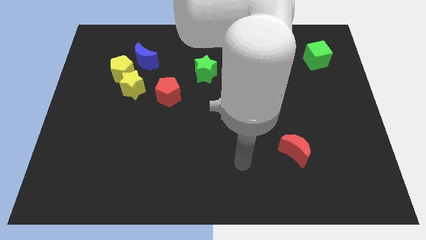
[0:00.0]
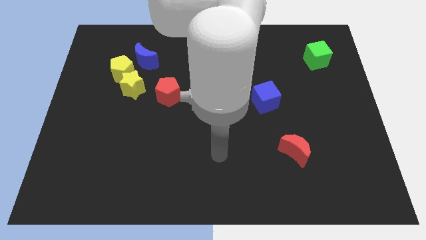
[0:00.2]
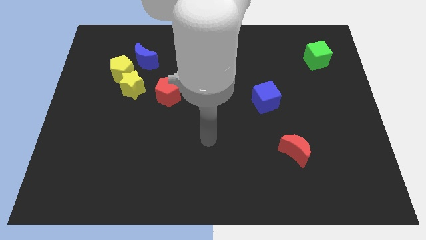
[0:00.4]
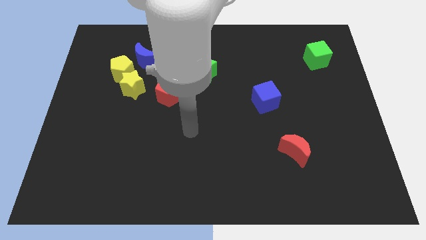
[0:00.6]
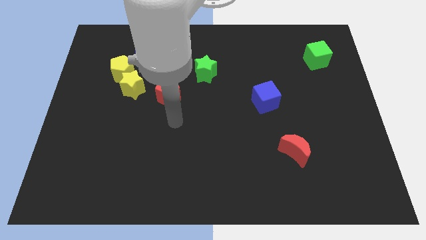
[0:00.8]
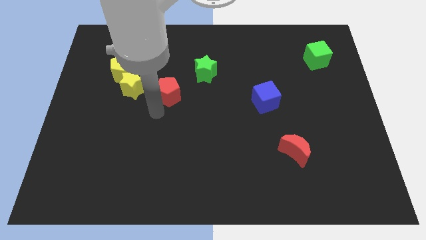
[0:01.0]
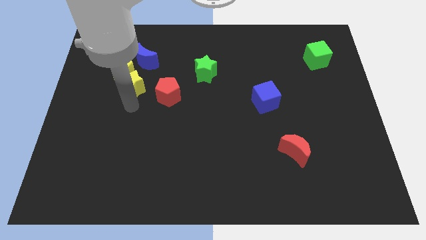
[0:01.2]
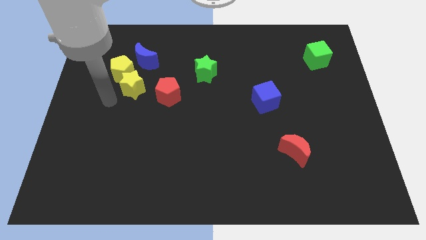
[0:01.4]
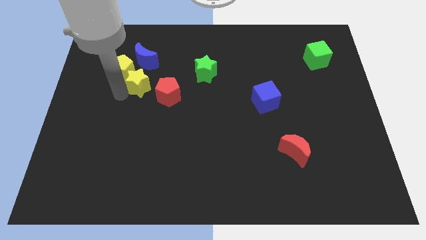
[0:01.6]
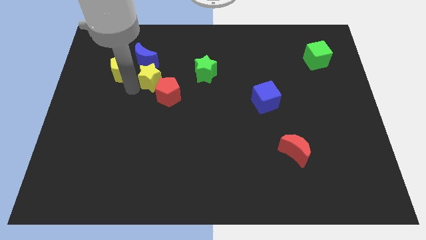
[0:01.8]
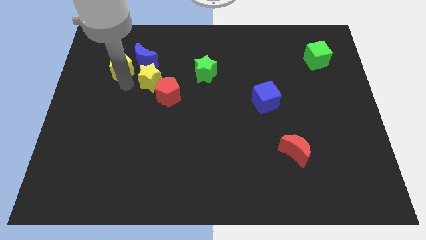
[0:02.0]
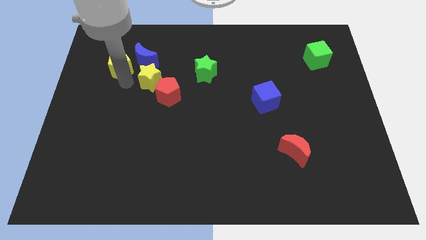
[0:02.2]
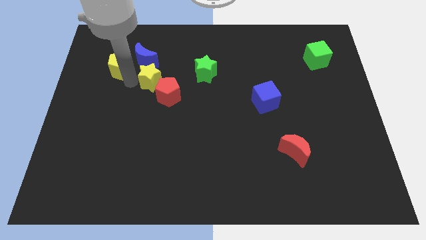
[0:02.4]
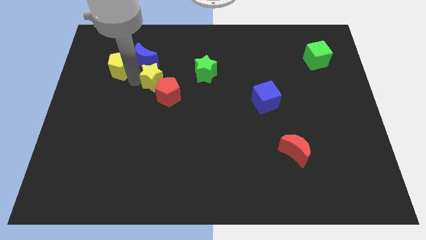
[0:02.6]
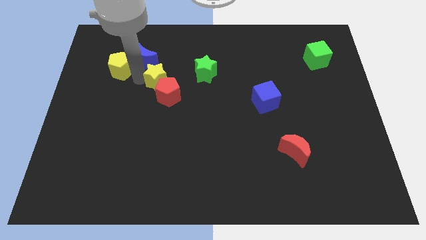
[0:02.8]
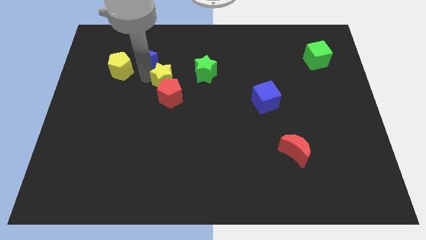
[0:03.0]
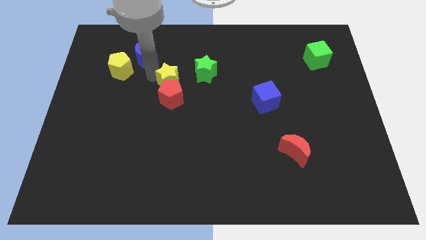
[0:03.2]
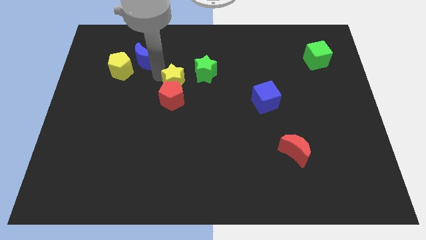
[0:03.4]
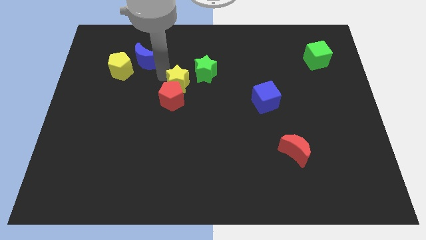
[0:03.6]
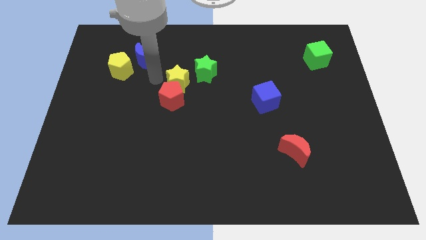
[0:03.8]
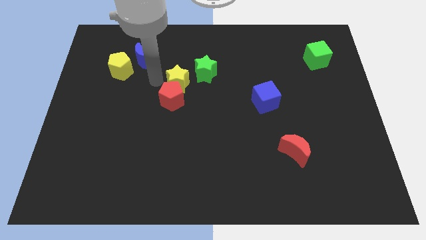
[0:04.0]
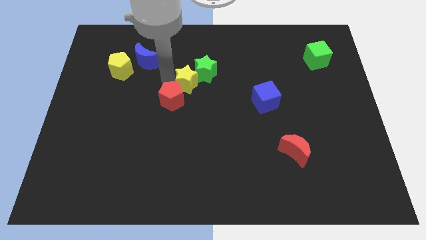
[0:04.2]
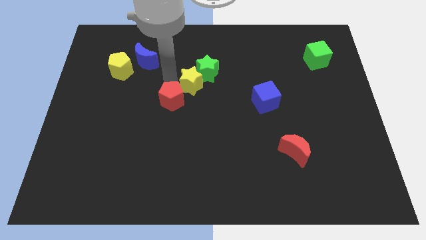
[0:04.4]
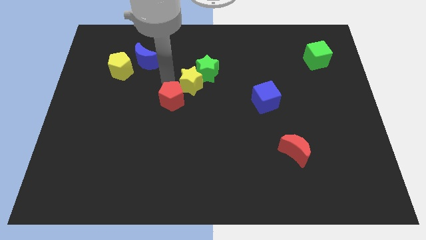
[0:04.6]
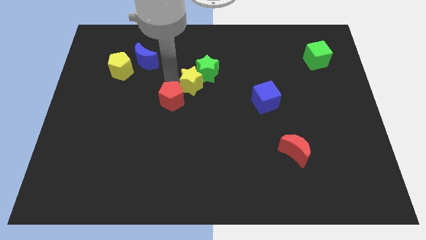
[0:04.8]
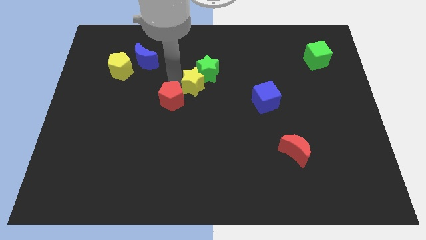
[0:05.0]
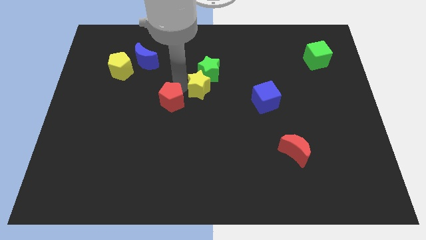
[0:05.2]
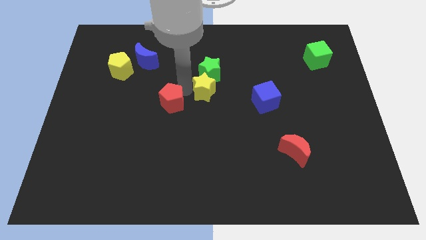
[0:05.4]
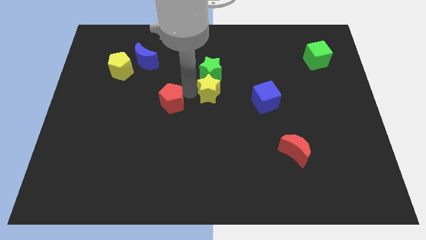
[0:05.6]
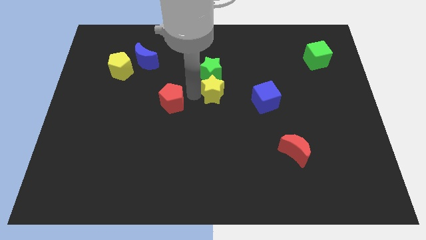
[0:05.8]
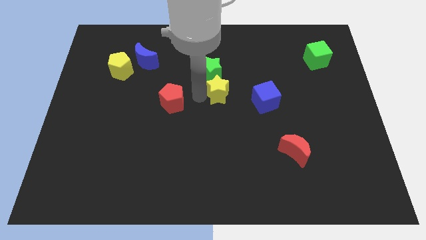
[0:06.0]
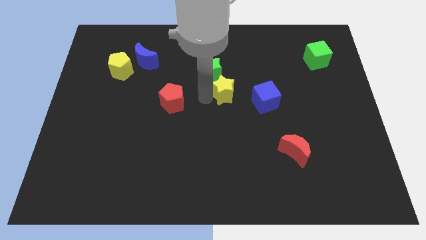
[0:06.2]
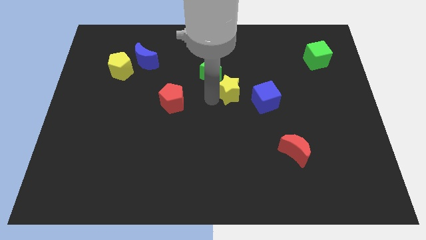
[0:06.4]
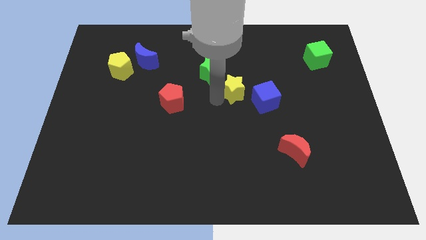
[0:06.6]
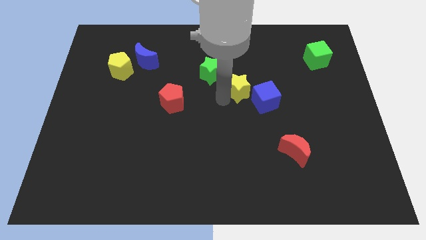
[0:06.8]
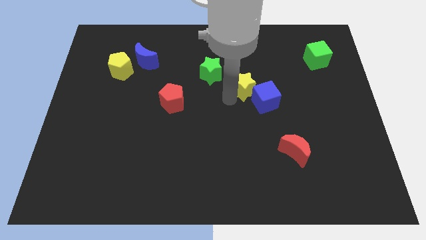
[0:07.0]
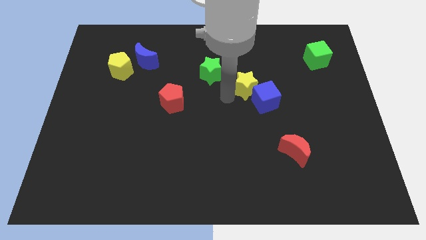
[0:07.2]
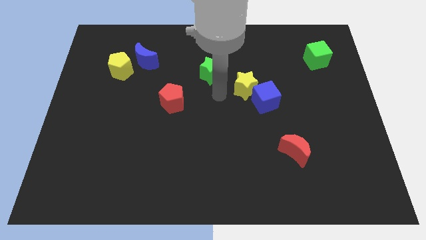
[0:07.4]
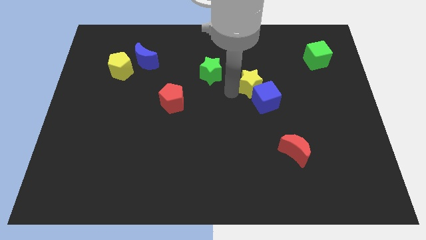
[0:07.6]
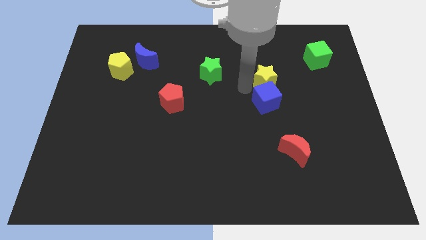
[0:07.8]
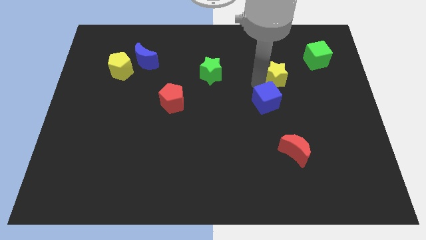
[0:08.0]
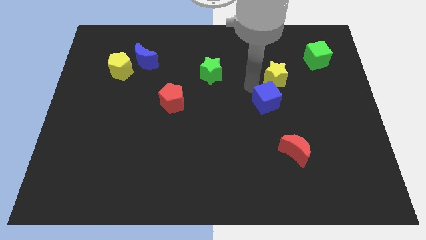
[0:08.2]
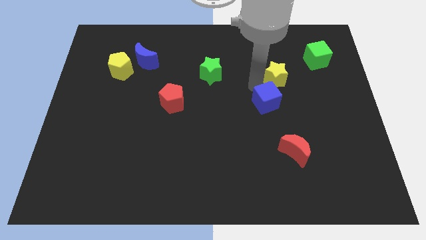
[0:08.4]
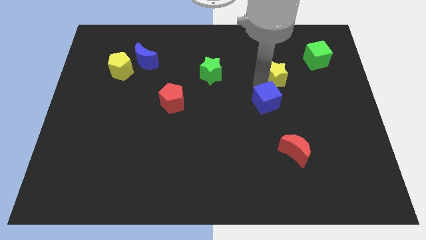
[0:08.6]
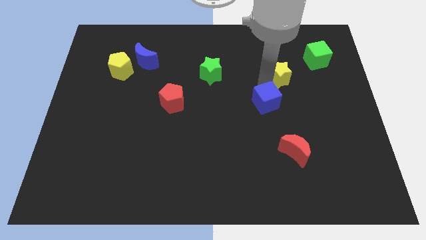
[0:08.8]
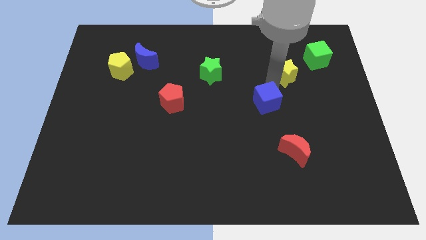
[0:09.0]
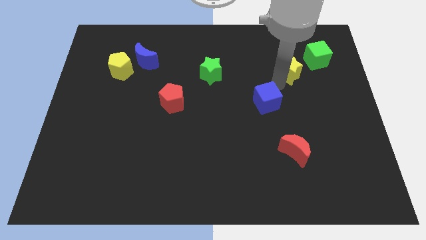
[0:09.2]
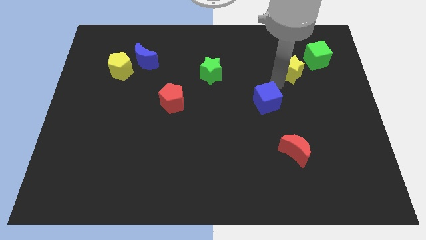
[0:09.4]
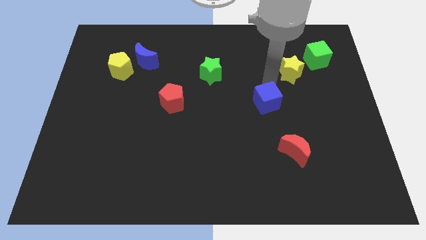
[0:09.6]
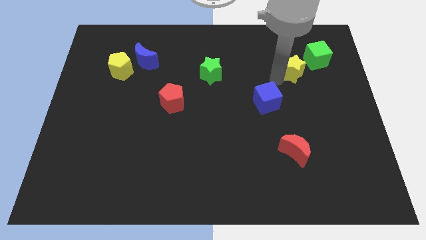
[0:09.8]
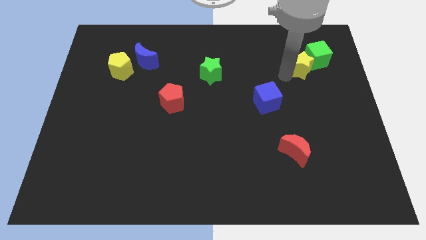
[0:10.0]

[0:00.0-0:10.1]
put the yellow star close to the green cube

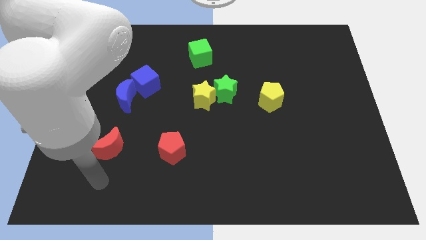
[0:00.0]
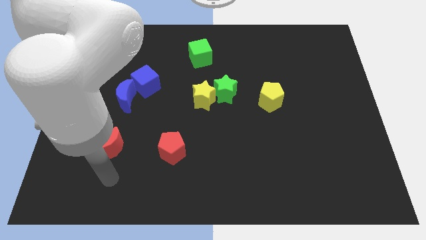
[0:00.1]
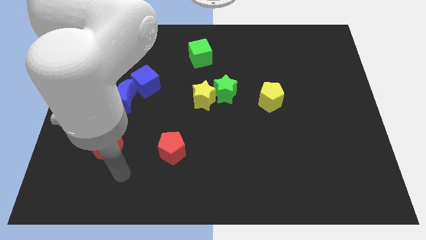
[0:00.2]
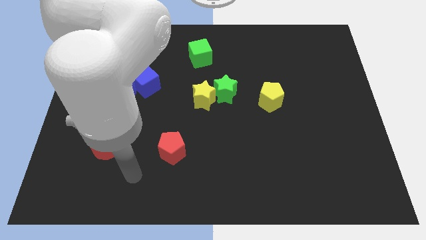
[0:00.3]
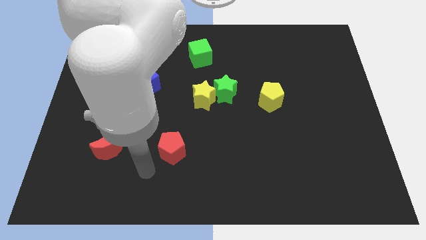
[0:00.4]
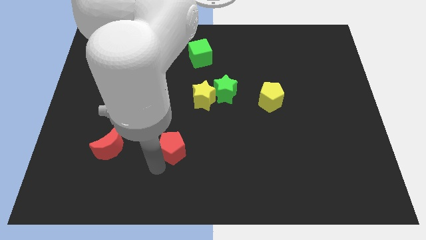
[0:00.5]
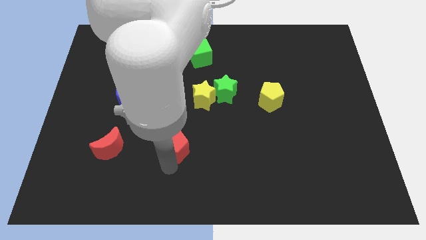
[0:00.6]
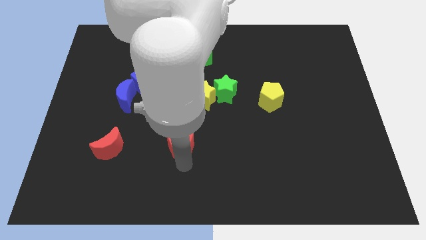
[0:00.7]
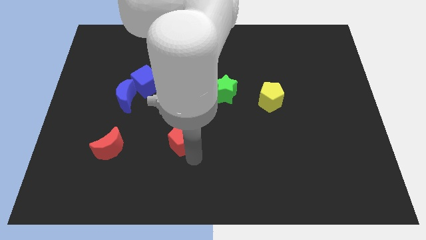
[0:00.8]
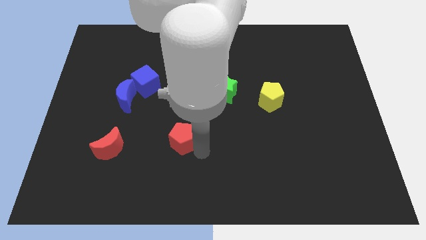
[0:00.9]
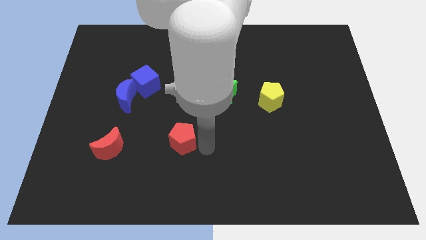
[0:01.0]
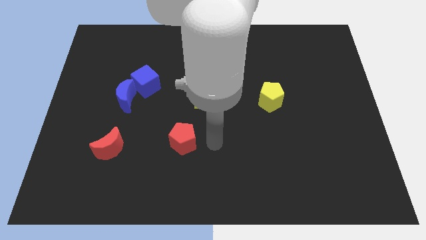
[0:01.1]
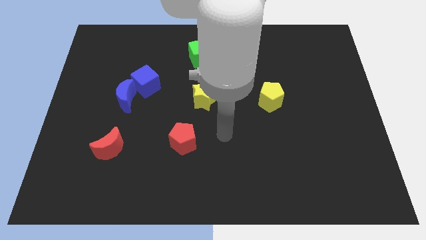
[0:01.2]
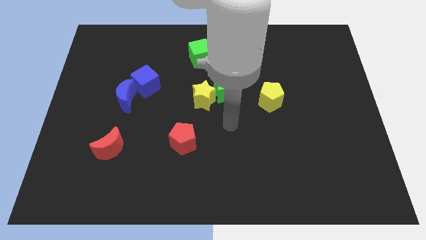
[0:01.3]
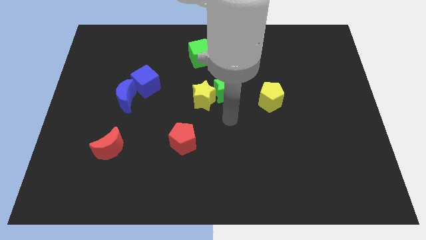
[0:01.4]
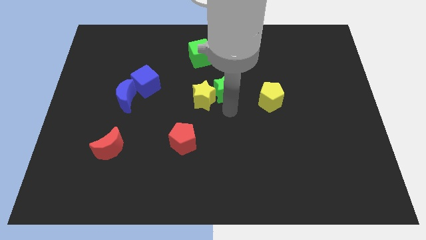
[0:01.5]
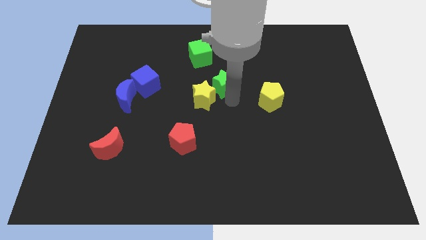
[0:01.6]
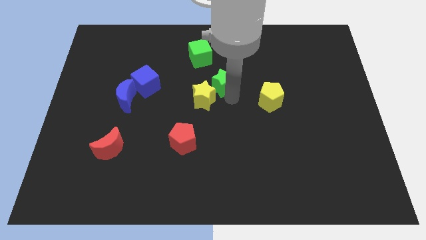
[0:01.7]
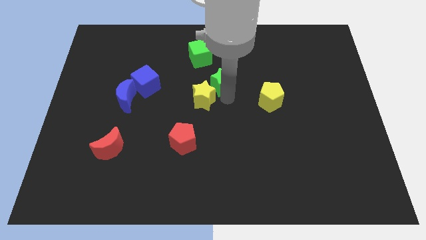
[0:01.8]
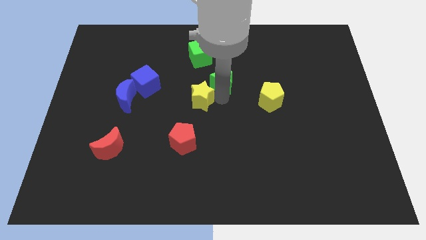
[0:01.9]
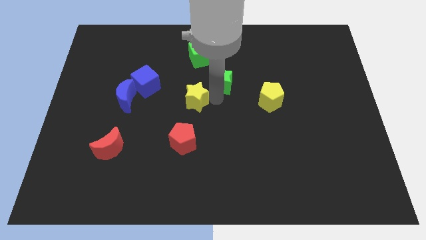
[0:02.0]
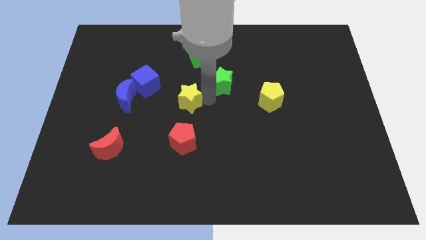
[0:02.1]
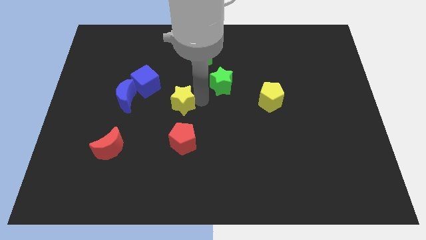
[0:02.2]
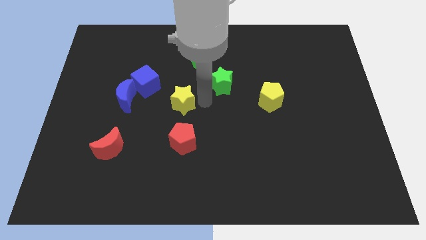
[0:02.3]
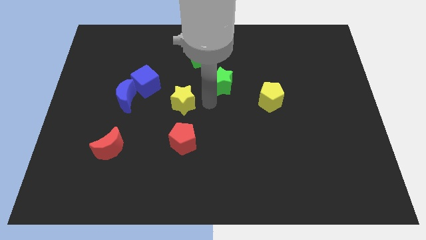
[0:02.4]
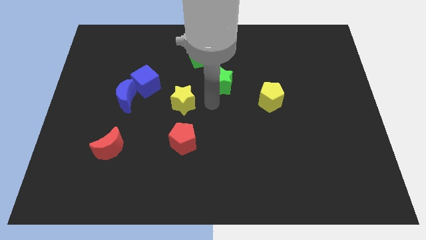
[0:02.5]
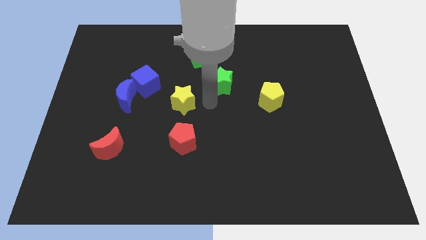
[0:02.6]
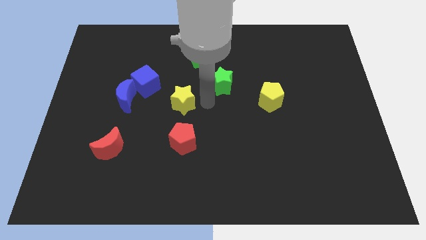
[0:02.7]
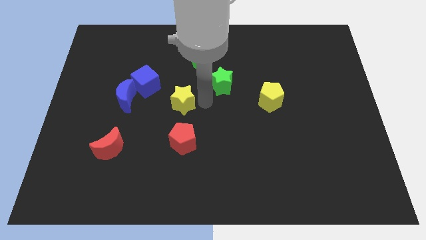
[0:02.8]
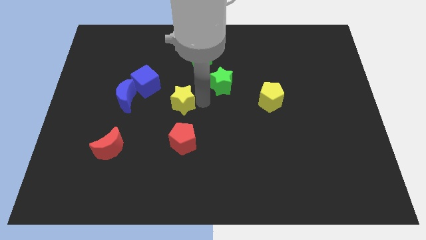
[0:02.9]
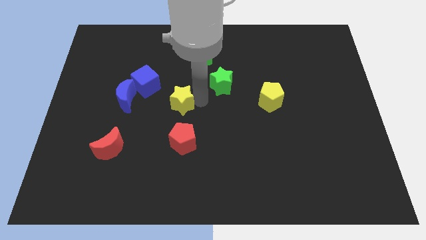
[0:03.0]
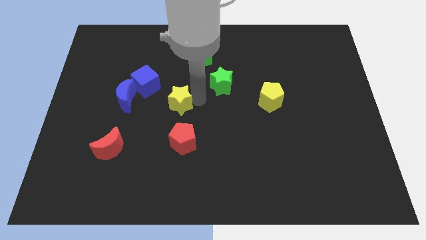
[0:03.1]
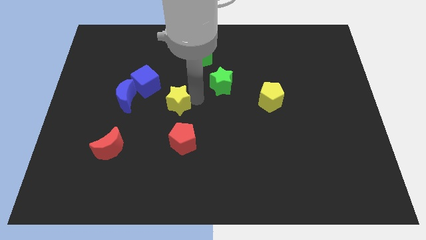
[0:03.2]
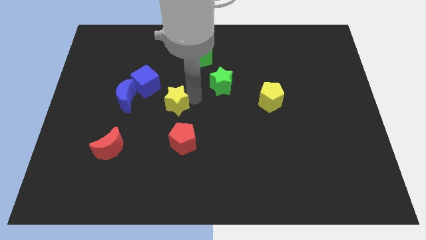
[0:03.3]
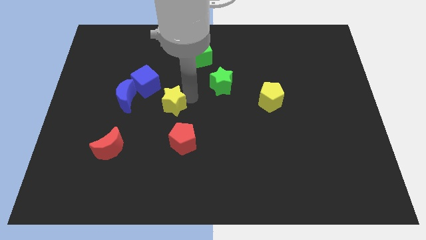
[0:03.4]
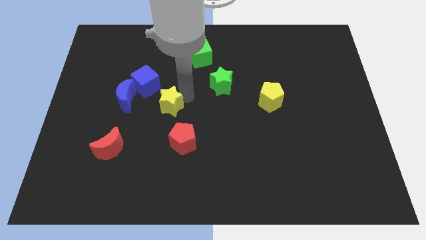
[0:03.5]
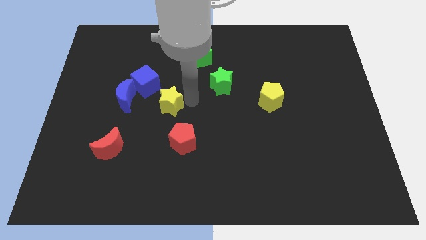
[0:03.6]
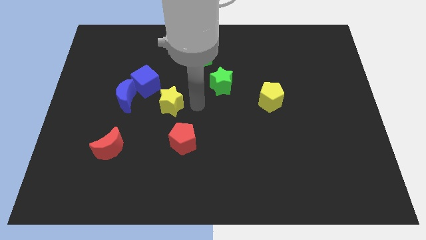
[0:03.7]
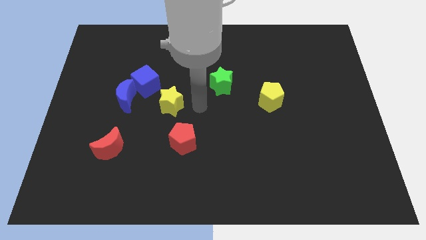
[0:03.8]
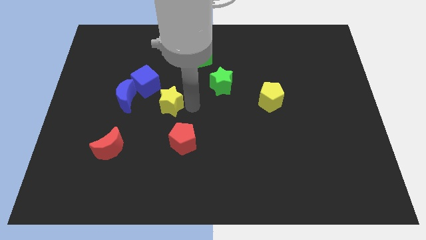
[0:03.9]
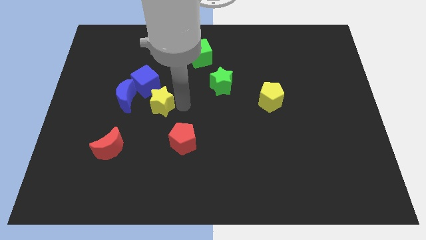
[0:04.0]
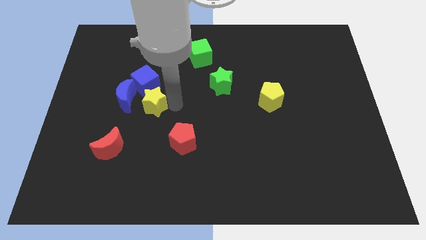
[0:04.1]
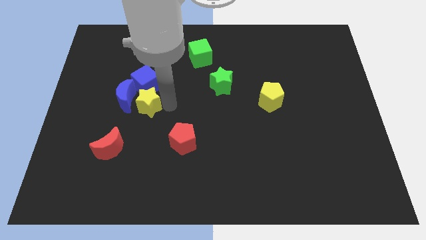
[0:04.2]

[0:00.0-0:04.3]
push the yellow star towards the blue moon
